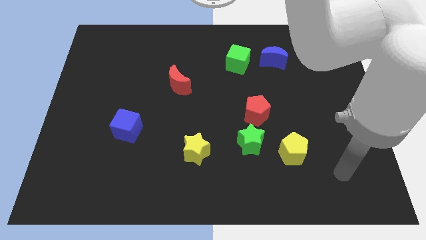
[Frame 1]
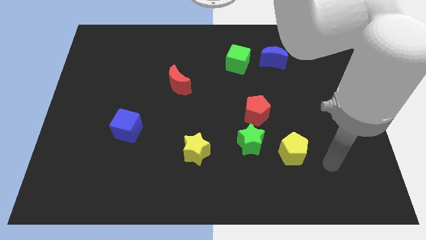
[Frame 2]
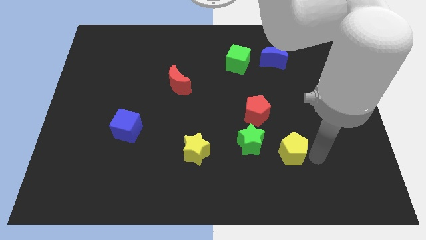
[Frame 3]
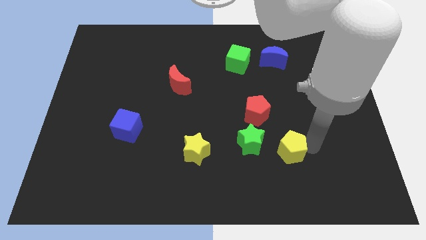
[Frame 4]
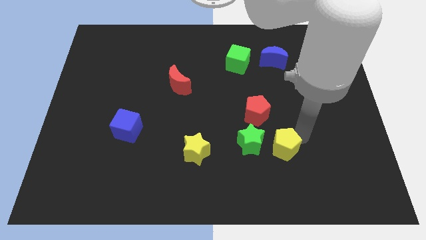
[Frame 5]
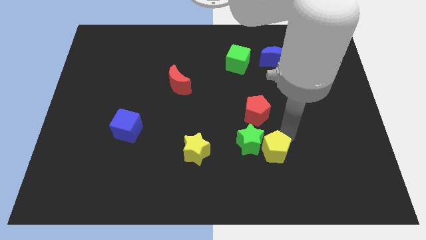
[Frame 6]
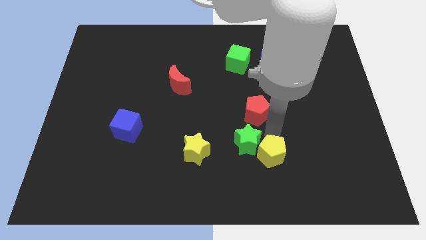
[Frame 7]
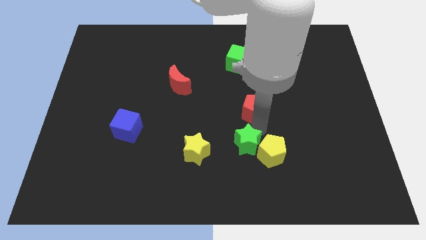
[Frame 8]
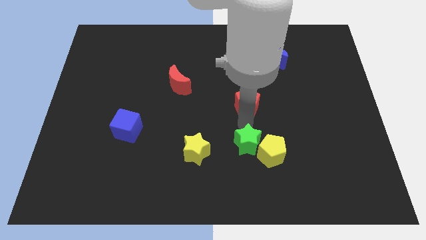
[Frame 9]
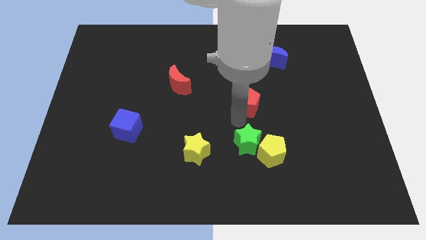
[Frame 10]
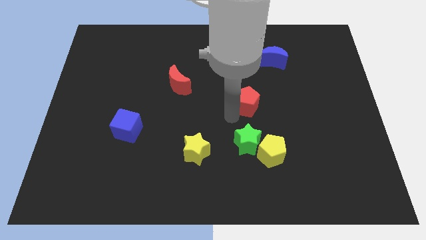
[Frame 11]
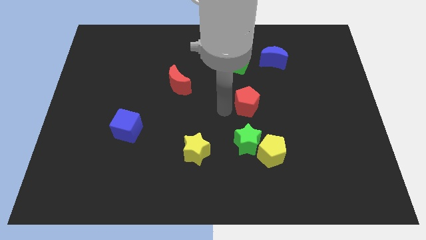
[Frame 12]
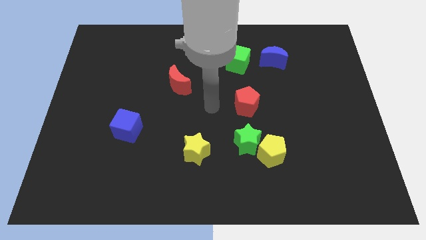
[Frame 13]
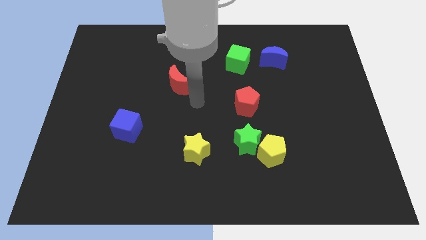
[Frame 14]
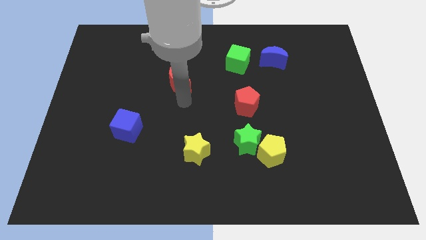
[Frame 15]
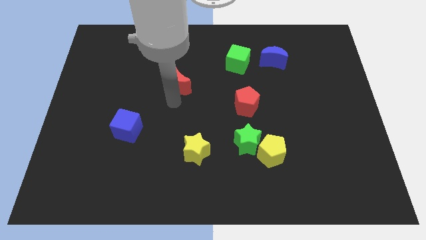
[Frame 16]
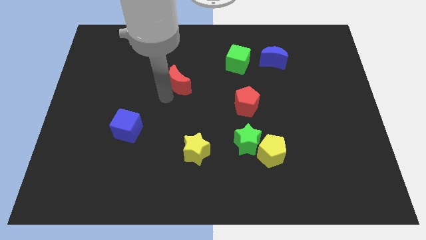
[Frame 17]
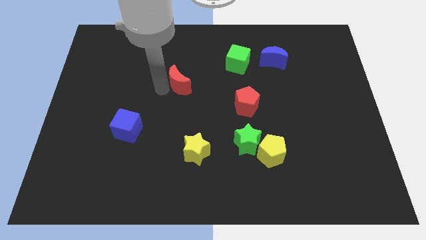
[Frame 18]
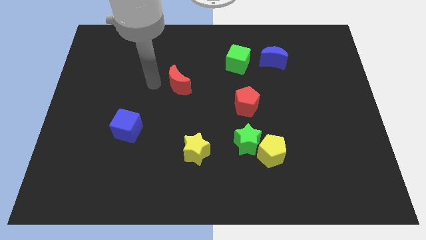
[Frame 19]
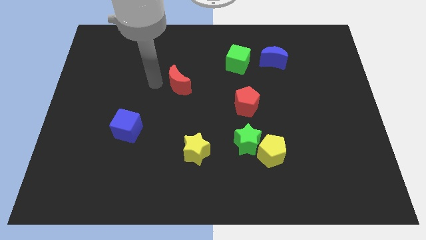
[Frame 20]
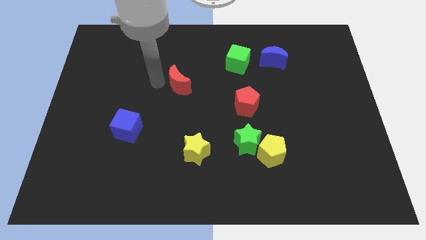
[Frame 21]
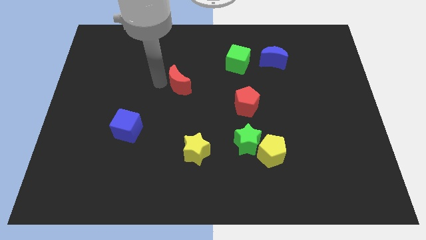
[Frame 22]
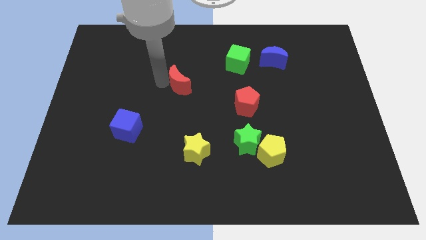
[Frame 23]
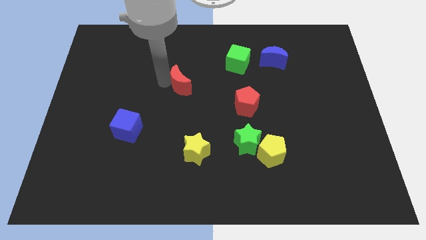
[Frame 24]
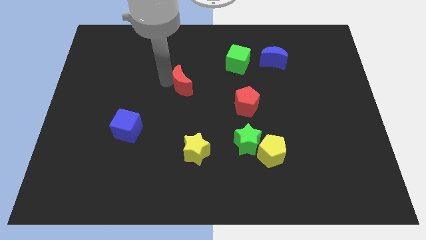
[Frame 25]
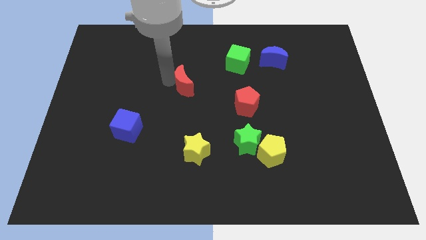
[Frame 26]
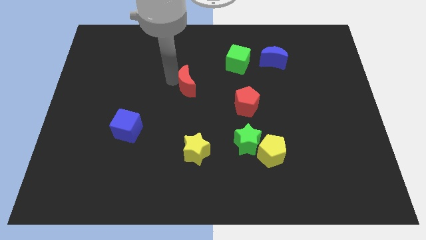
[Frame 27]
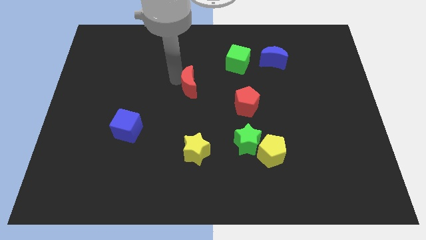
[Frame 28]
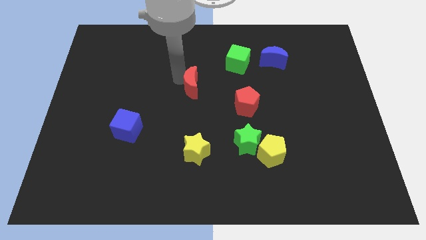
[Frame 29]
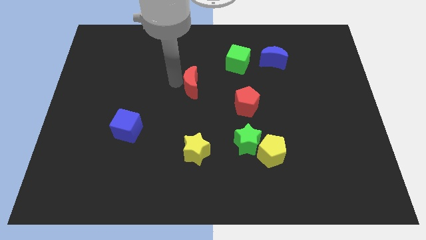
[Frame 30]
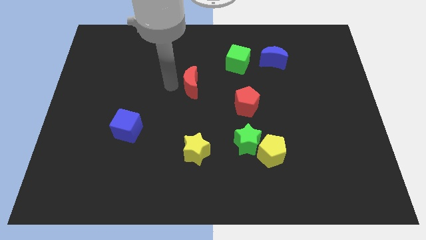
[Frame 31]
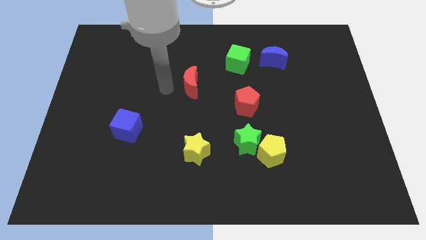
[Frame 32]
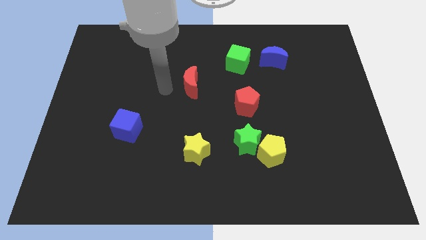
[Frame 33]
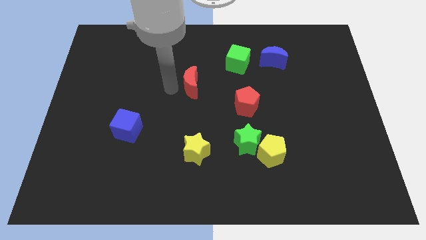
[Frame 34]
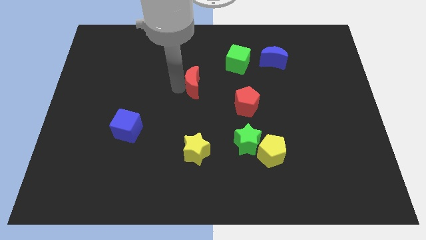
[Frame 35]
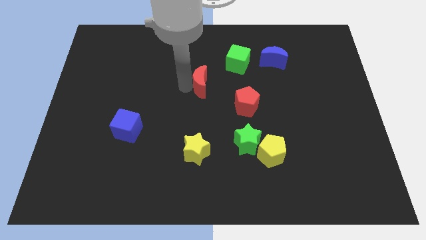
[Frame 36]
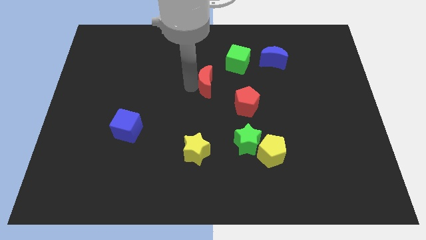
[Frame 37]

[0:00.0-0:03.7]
move the red moon to the right slightly

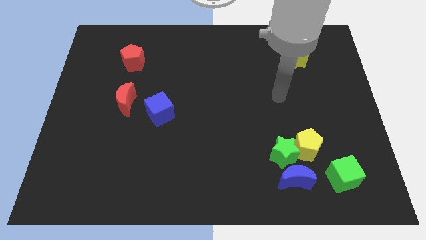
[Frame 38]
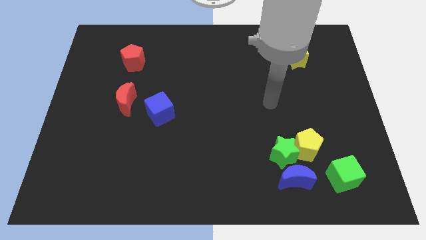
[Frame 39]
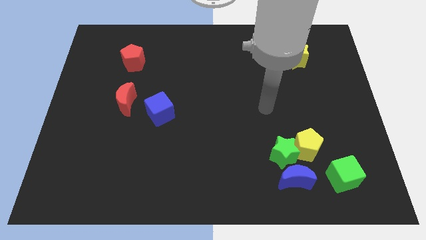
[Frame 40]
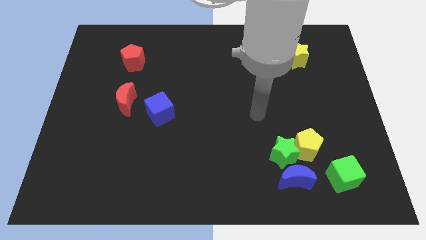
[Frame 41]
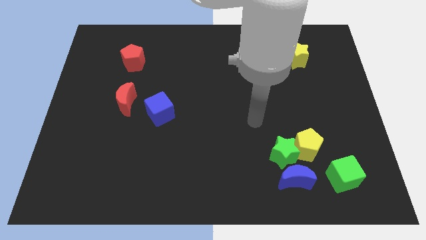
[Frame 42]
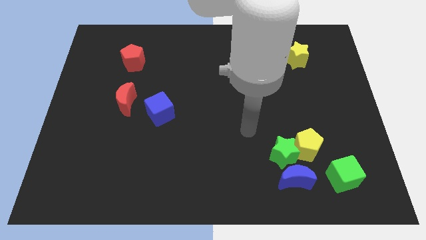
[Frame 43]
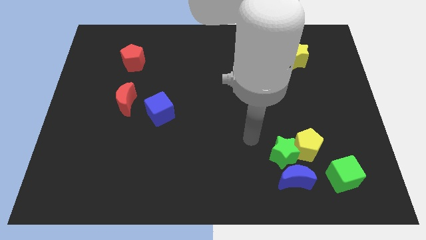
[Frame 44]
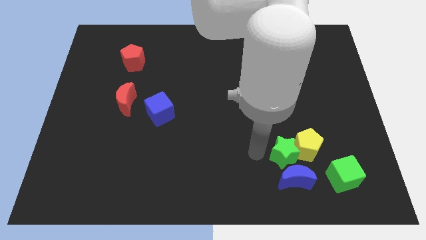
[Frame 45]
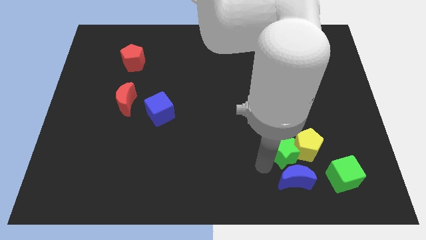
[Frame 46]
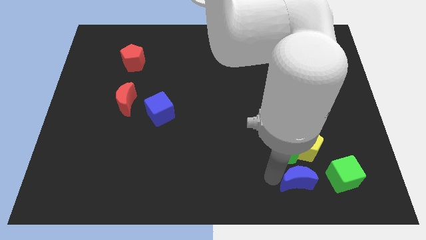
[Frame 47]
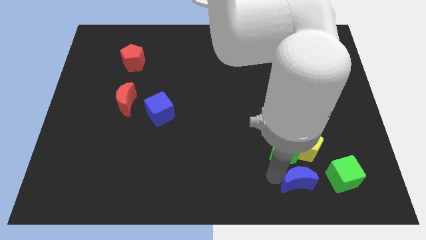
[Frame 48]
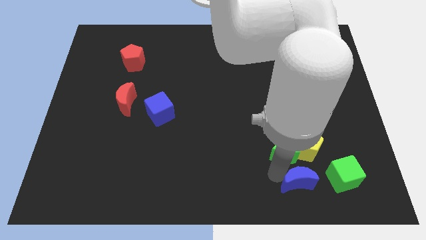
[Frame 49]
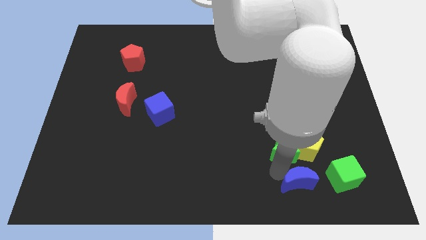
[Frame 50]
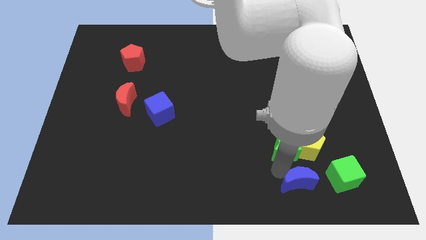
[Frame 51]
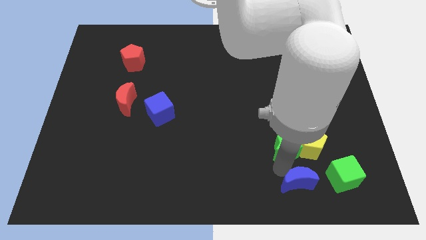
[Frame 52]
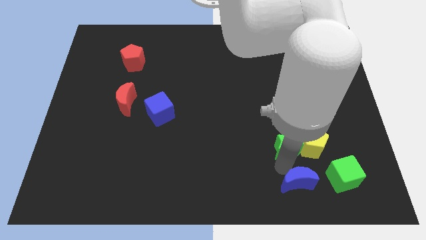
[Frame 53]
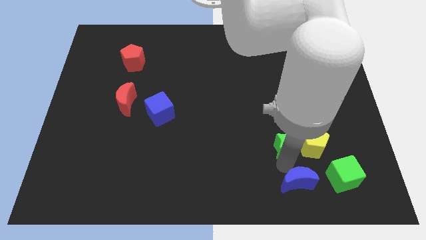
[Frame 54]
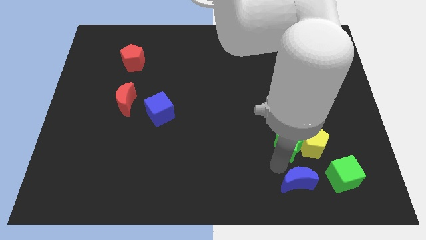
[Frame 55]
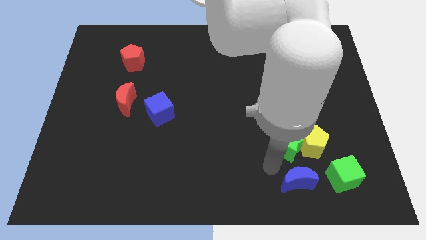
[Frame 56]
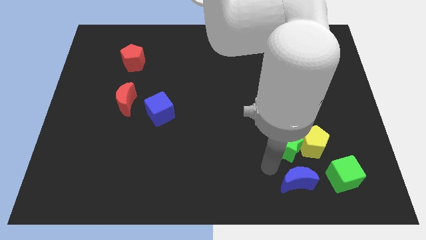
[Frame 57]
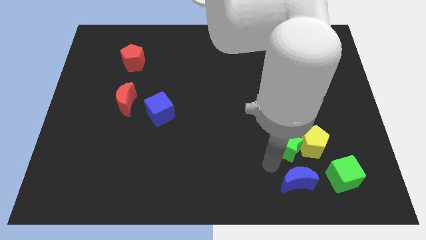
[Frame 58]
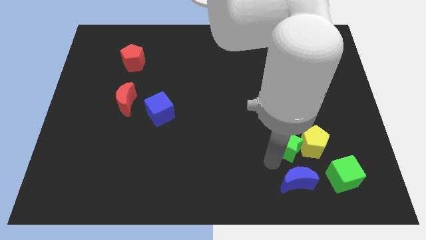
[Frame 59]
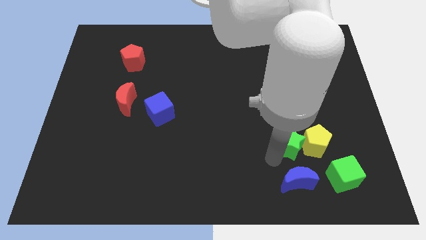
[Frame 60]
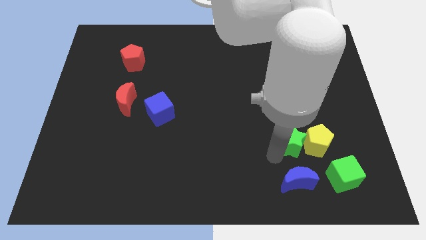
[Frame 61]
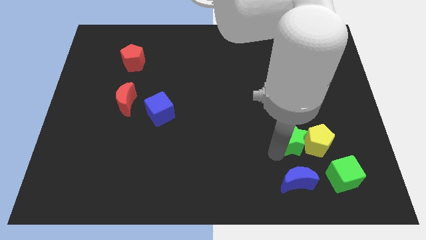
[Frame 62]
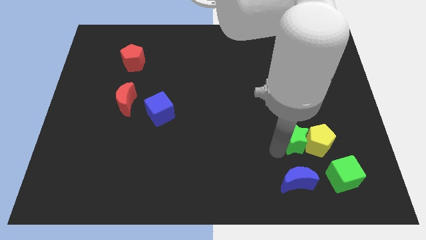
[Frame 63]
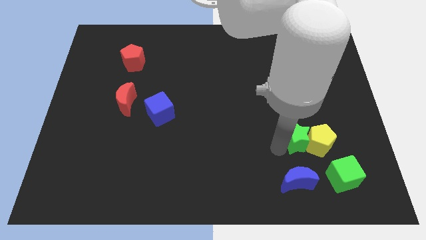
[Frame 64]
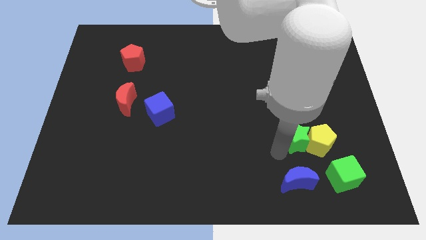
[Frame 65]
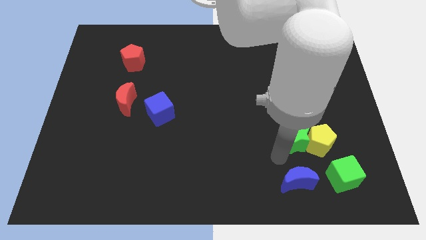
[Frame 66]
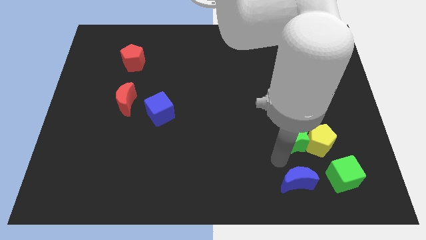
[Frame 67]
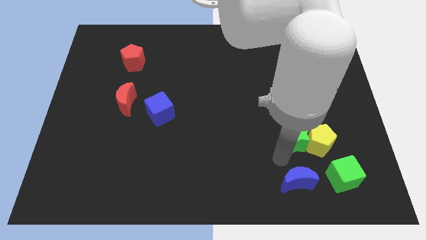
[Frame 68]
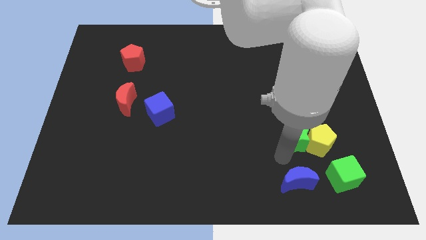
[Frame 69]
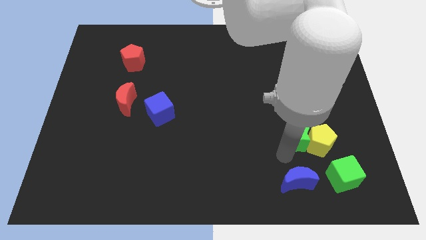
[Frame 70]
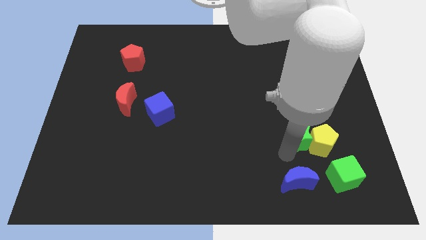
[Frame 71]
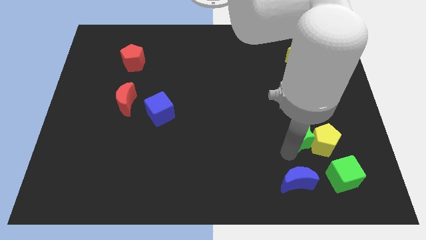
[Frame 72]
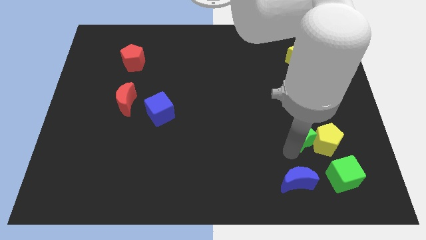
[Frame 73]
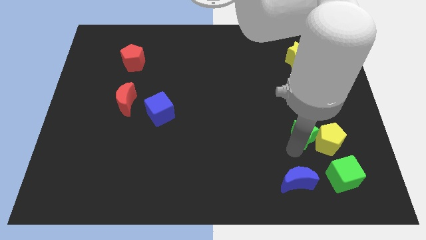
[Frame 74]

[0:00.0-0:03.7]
slide the green star a little diagonally up and right

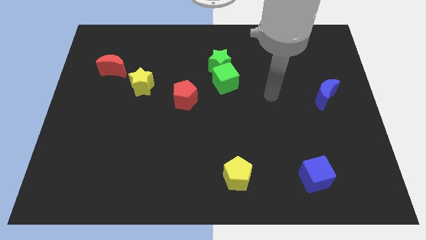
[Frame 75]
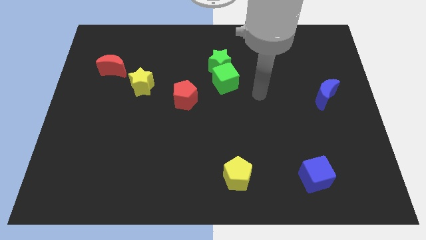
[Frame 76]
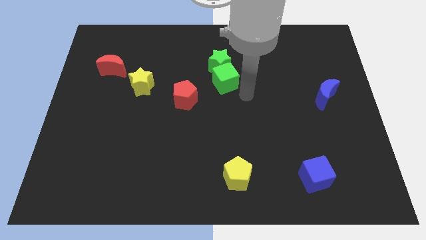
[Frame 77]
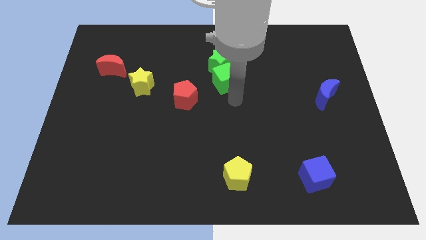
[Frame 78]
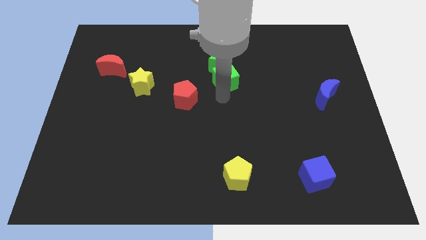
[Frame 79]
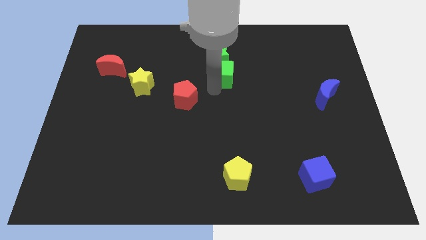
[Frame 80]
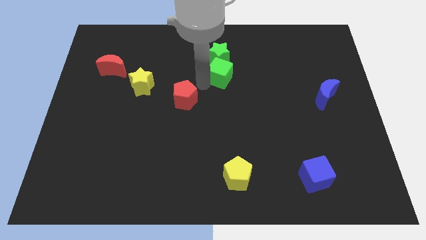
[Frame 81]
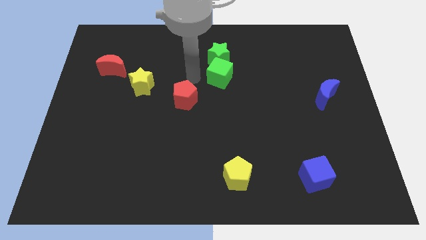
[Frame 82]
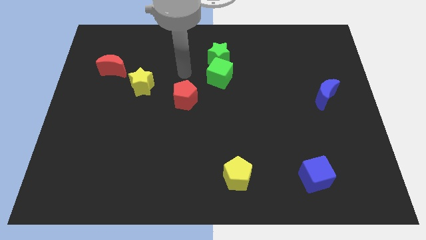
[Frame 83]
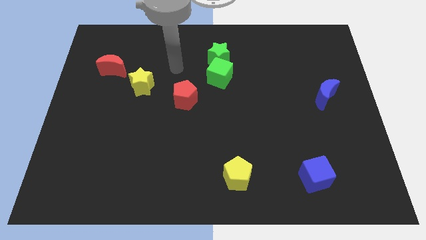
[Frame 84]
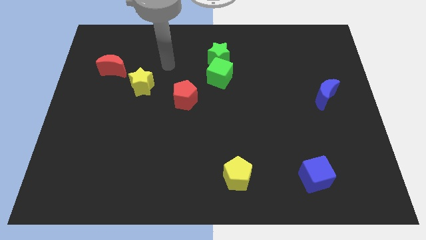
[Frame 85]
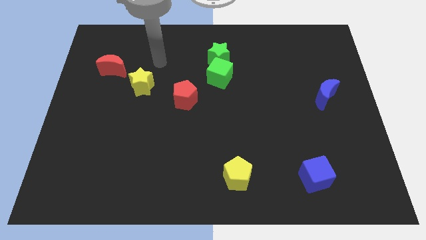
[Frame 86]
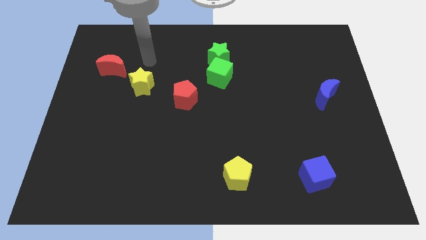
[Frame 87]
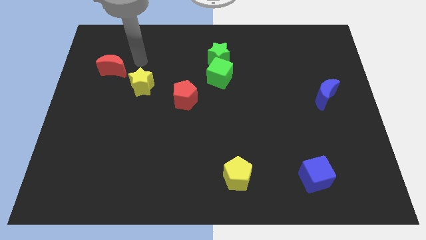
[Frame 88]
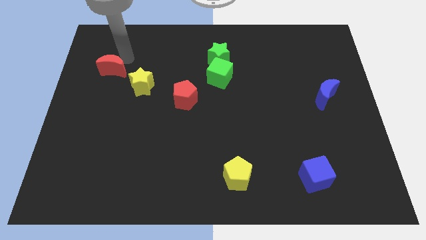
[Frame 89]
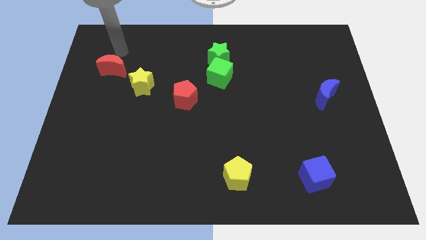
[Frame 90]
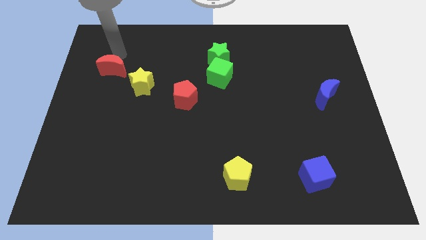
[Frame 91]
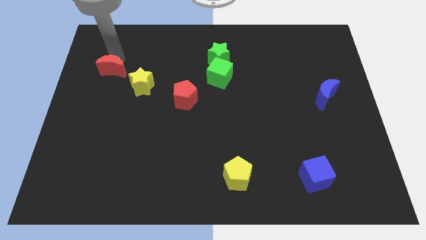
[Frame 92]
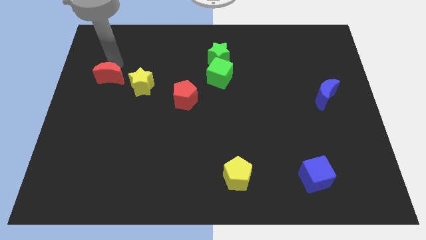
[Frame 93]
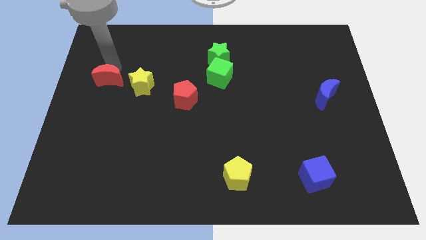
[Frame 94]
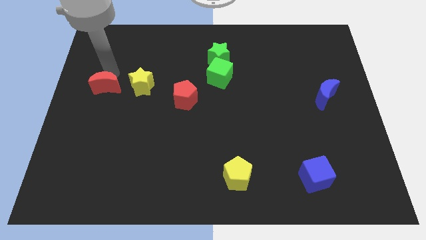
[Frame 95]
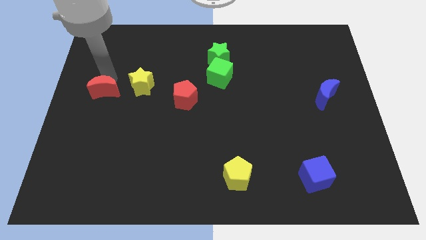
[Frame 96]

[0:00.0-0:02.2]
push the red moon a bit downwards
